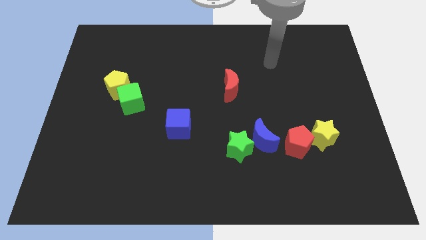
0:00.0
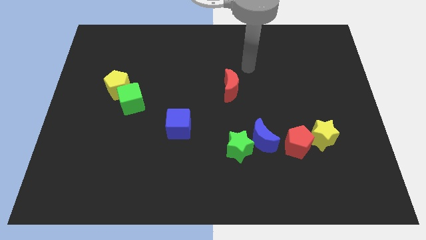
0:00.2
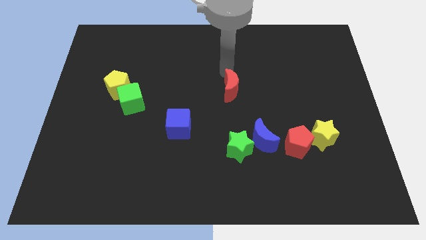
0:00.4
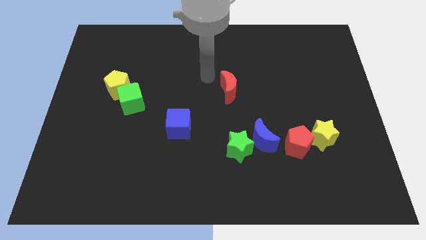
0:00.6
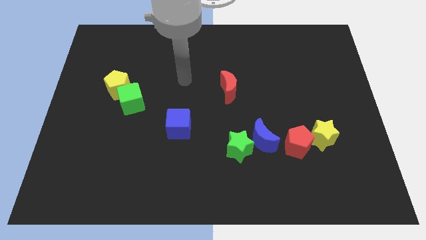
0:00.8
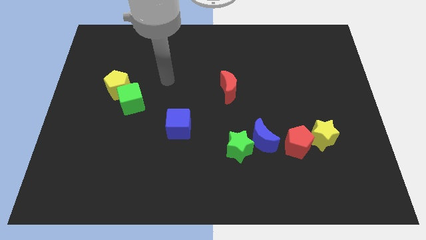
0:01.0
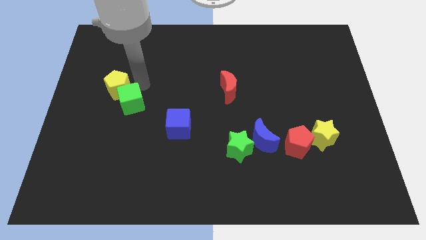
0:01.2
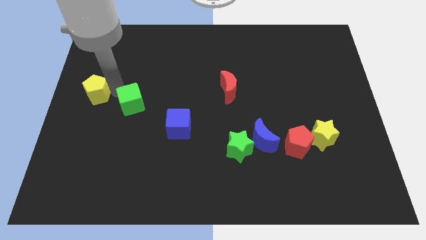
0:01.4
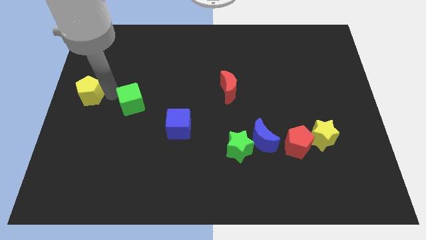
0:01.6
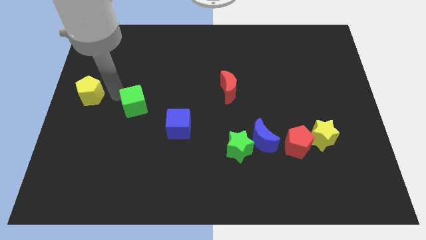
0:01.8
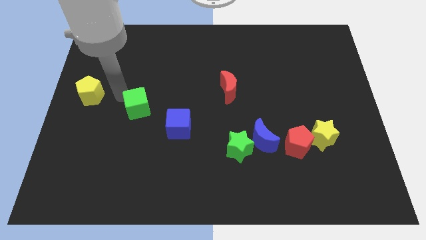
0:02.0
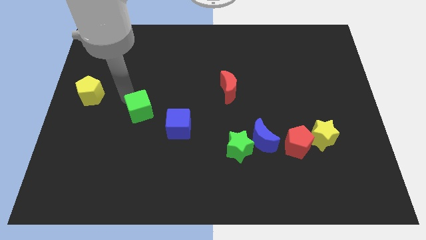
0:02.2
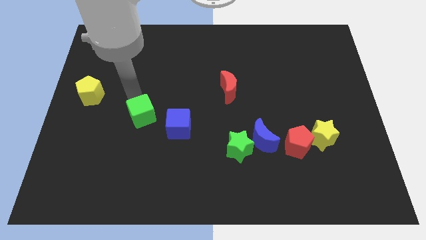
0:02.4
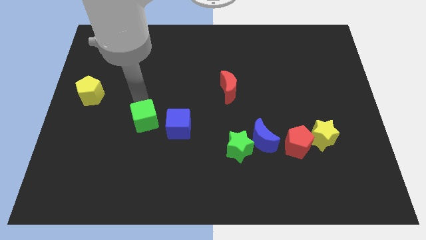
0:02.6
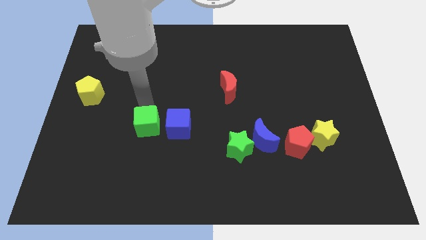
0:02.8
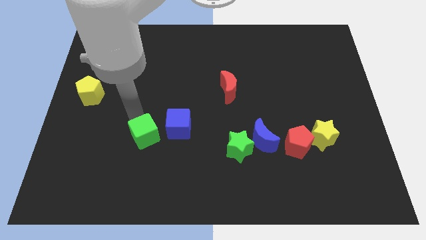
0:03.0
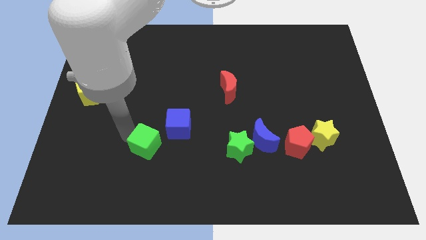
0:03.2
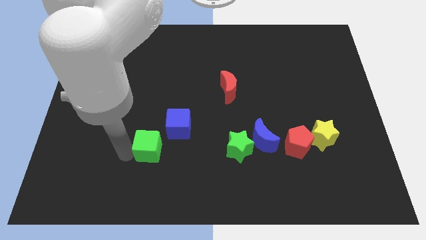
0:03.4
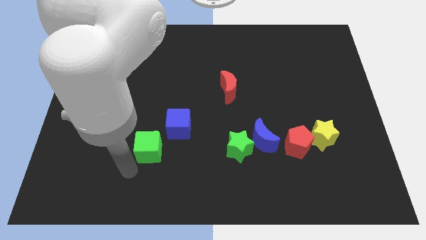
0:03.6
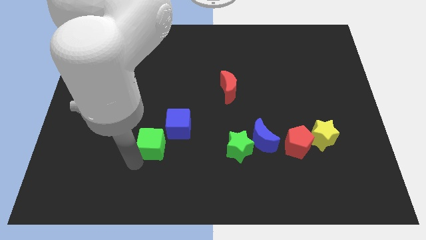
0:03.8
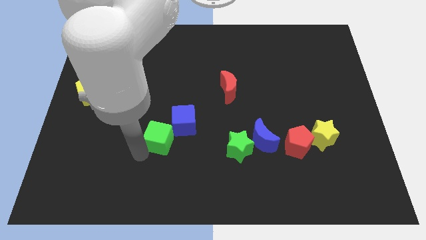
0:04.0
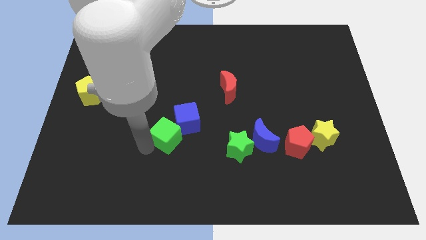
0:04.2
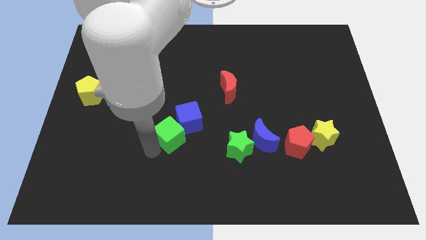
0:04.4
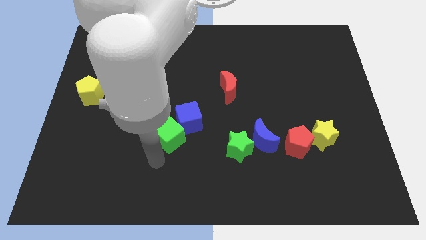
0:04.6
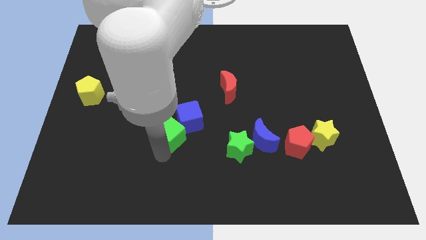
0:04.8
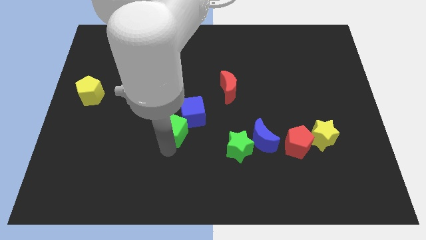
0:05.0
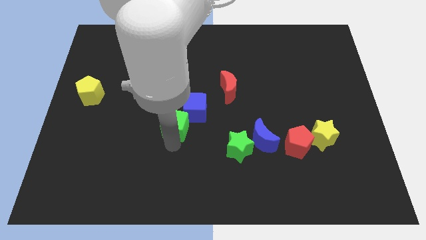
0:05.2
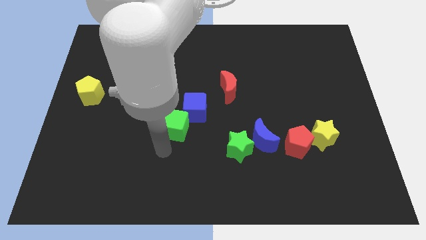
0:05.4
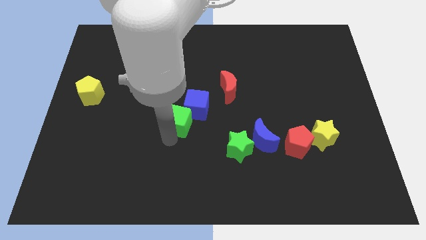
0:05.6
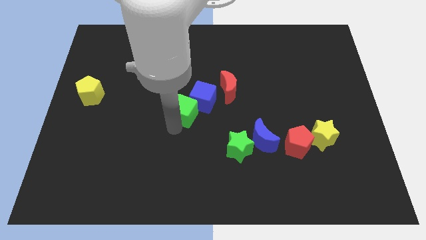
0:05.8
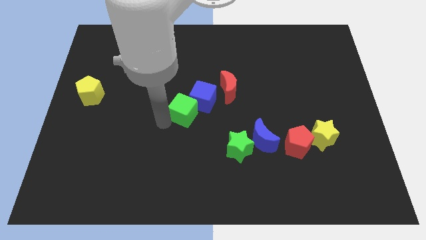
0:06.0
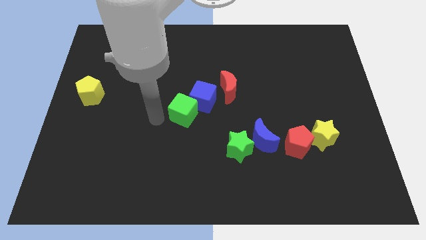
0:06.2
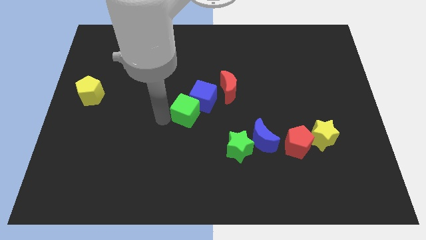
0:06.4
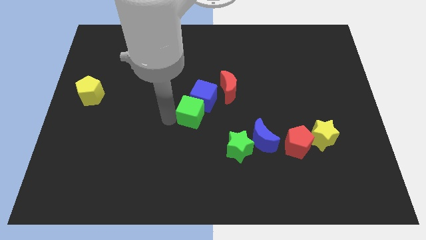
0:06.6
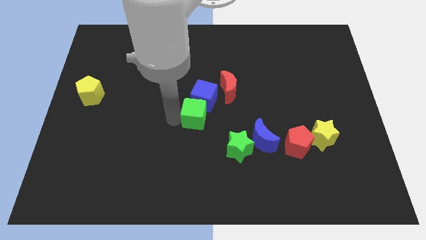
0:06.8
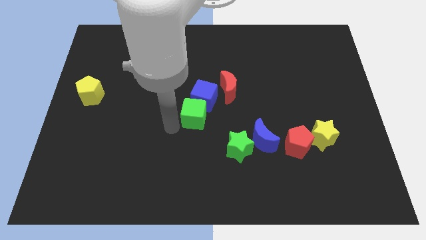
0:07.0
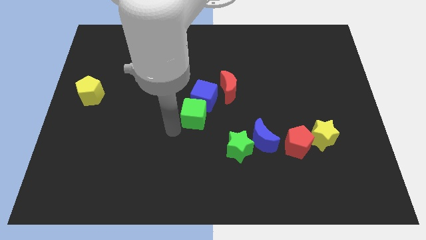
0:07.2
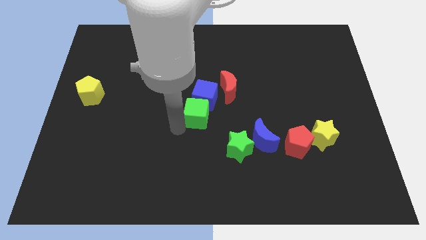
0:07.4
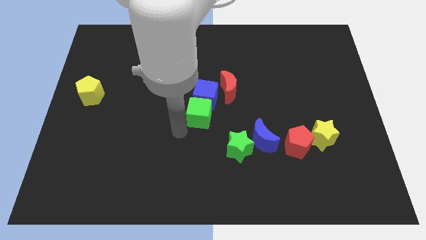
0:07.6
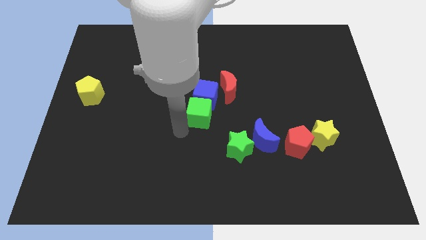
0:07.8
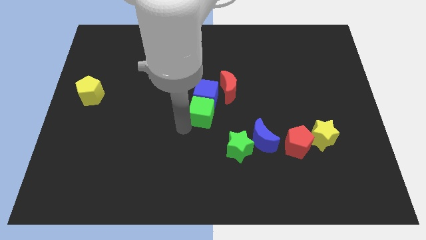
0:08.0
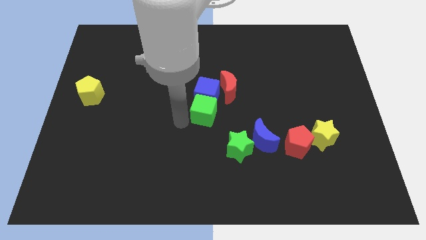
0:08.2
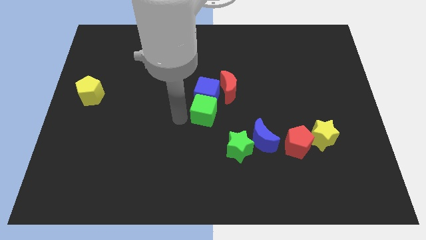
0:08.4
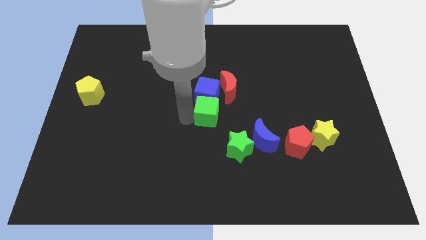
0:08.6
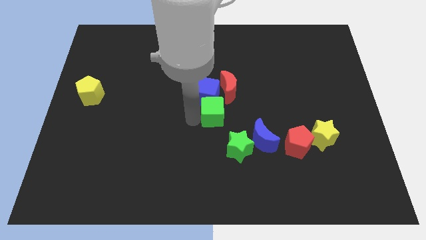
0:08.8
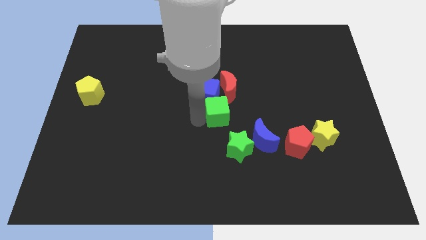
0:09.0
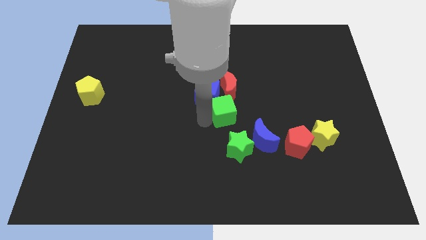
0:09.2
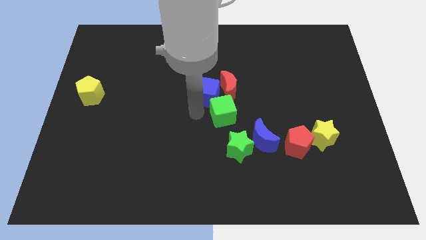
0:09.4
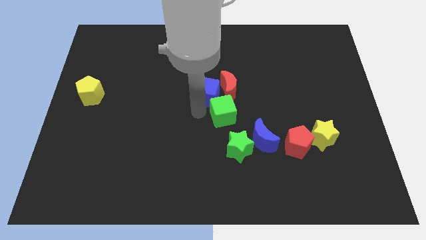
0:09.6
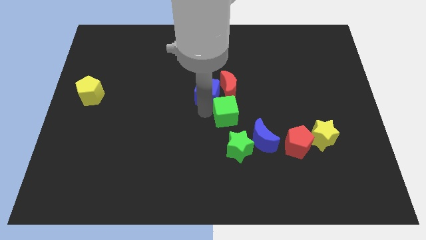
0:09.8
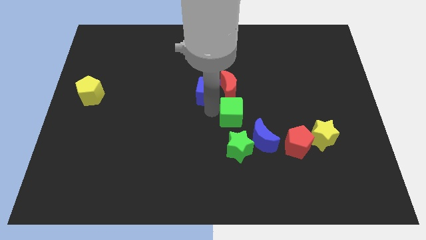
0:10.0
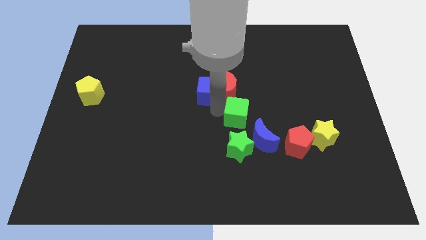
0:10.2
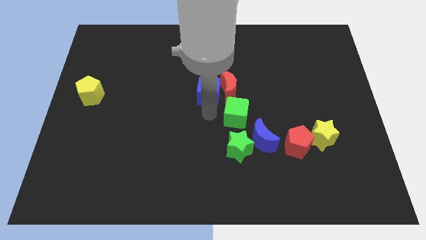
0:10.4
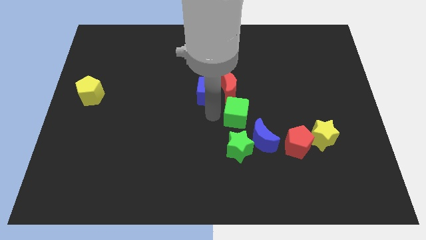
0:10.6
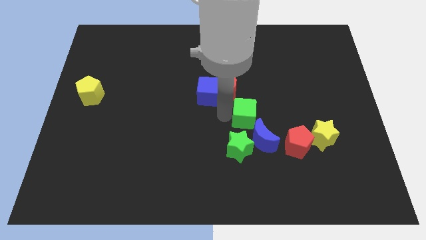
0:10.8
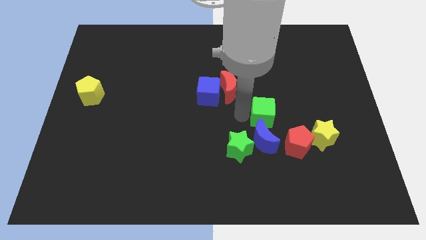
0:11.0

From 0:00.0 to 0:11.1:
push the green cube to the top right of the blue moon

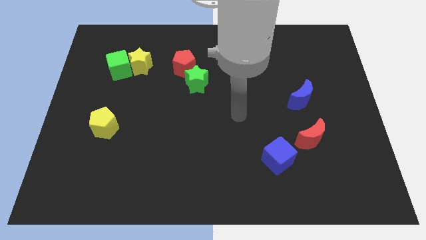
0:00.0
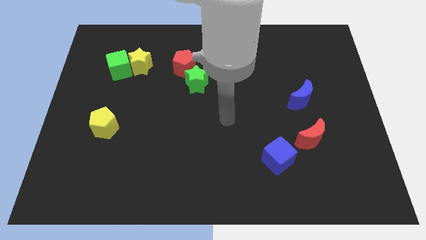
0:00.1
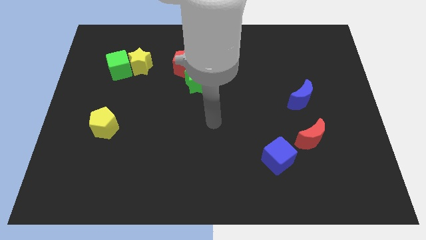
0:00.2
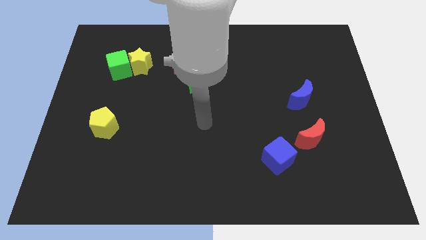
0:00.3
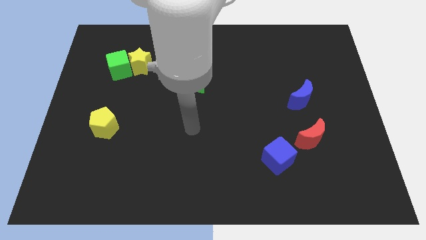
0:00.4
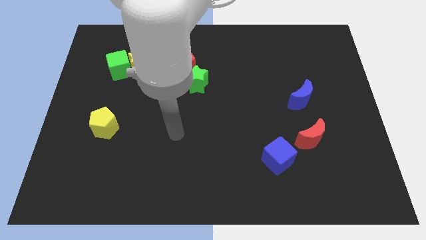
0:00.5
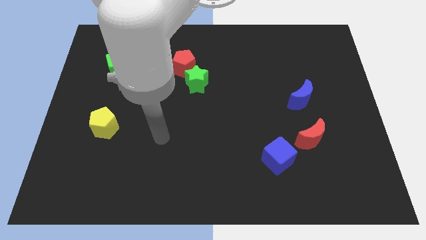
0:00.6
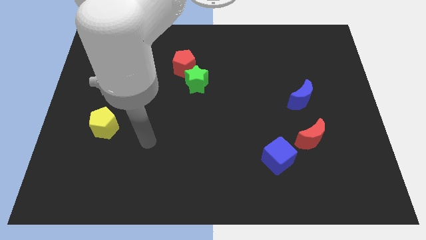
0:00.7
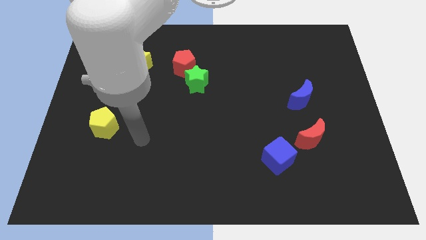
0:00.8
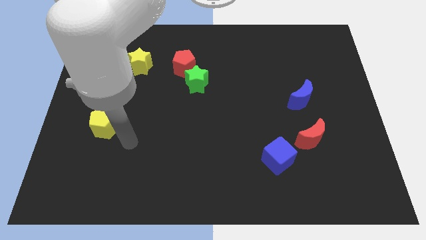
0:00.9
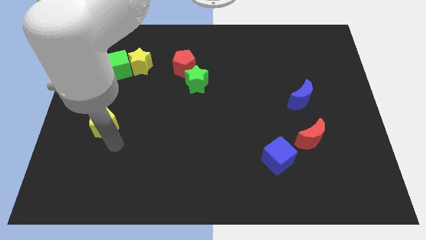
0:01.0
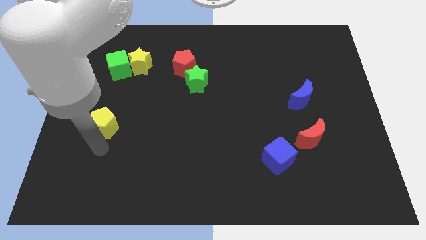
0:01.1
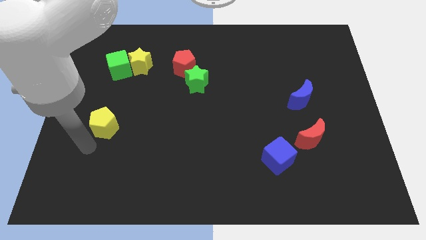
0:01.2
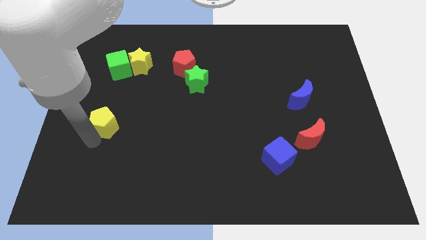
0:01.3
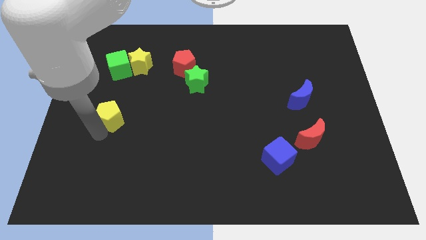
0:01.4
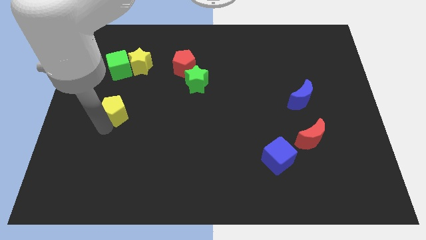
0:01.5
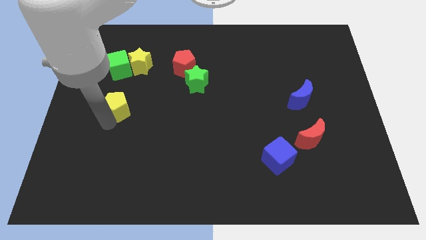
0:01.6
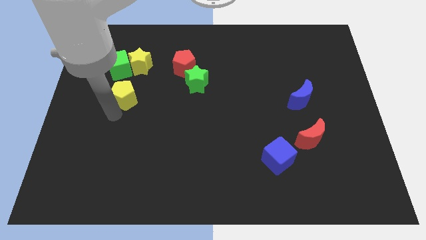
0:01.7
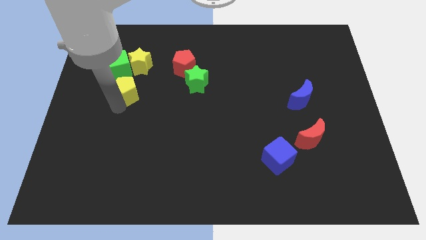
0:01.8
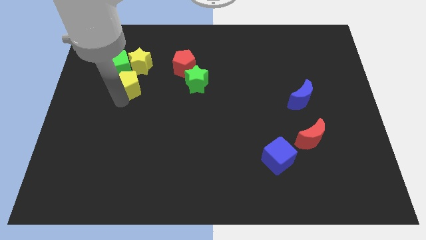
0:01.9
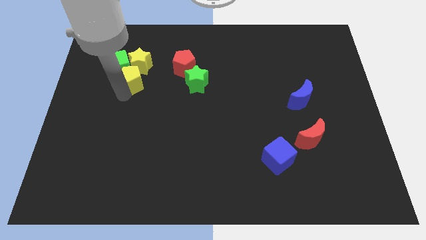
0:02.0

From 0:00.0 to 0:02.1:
move the yellow pentagon just left of the green star
